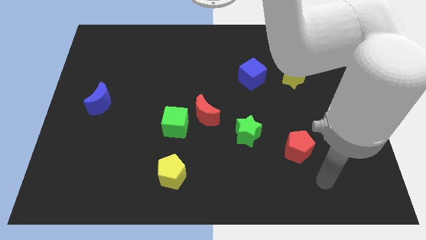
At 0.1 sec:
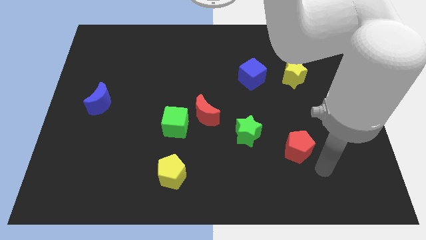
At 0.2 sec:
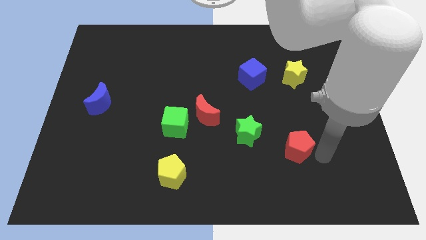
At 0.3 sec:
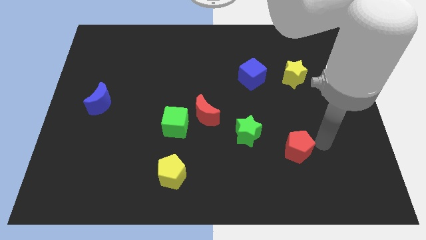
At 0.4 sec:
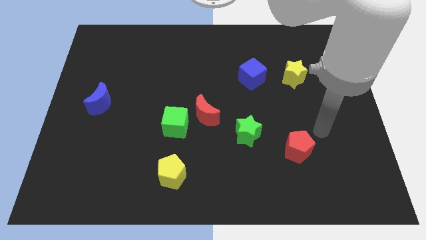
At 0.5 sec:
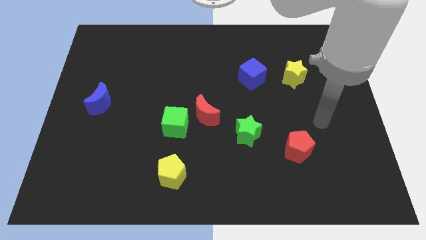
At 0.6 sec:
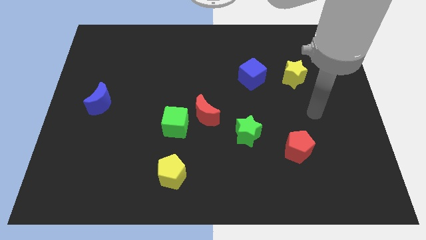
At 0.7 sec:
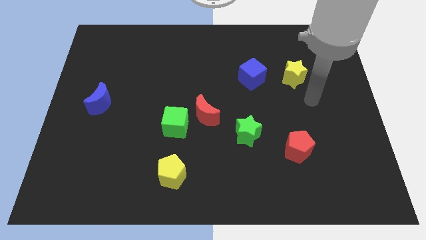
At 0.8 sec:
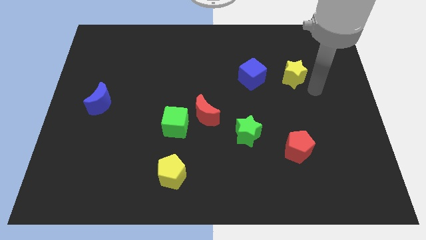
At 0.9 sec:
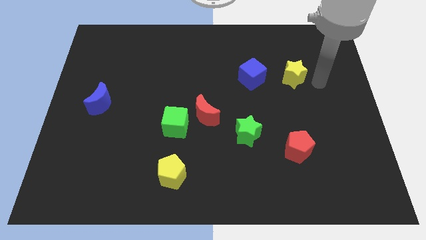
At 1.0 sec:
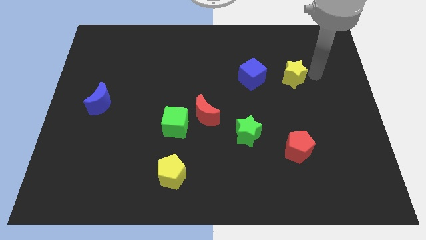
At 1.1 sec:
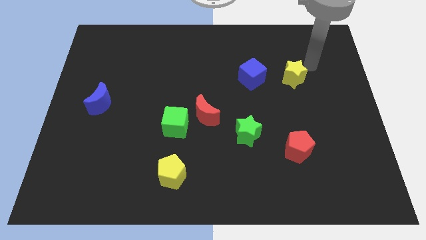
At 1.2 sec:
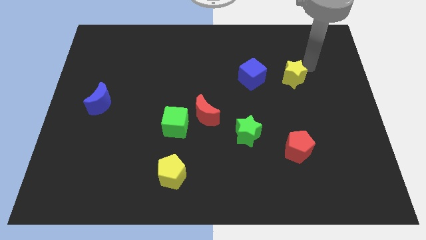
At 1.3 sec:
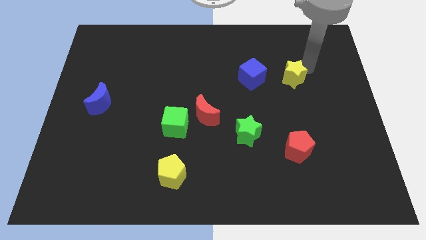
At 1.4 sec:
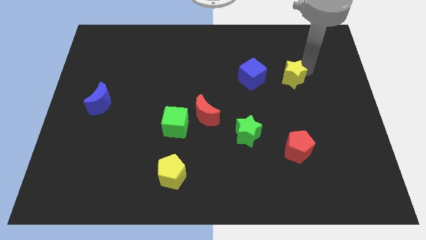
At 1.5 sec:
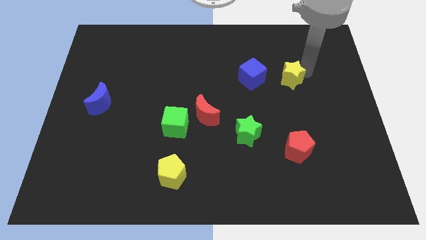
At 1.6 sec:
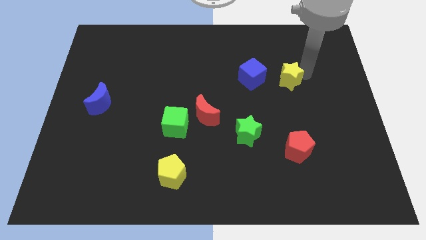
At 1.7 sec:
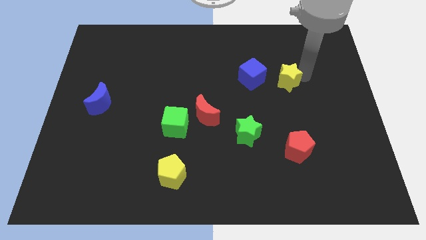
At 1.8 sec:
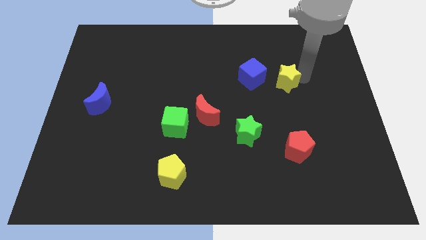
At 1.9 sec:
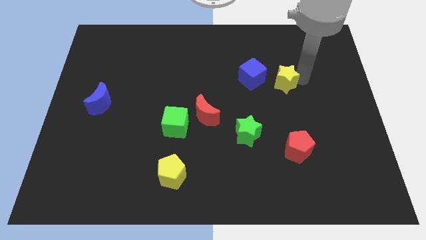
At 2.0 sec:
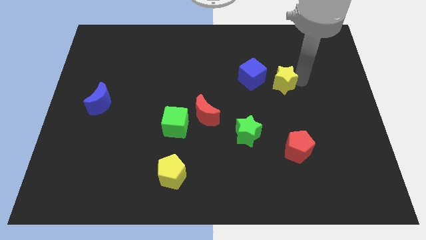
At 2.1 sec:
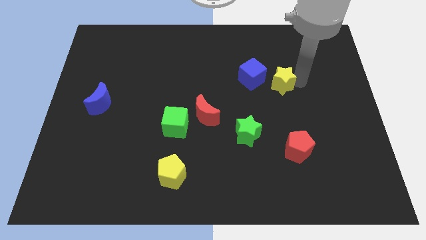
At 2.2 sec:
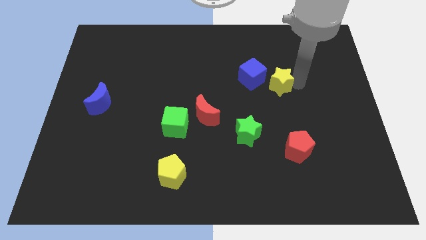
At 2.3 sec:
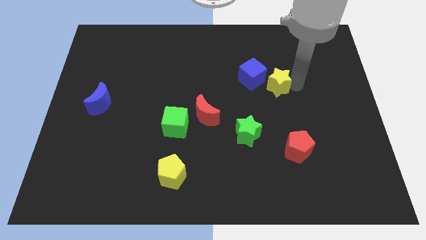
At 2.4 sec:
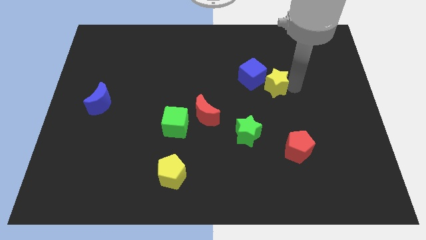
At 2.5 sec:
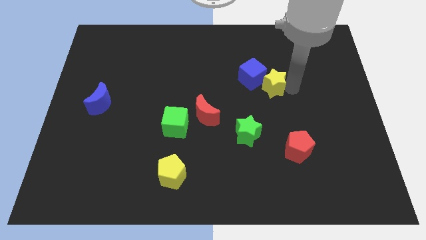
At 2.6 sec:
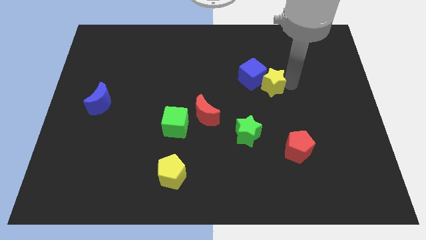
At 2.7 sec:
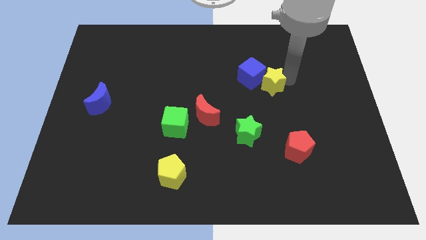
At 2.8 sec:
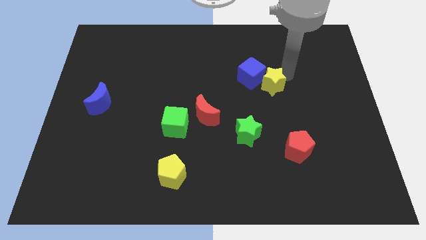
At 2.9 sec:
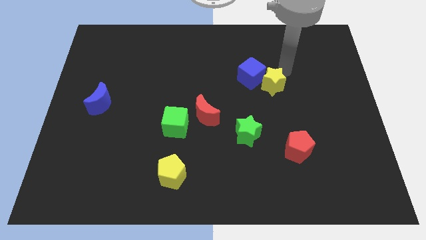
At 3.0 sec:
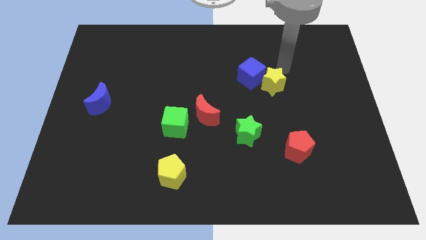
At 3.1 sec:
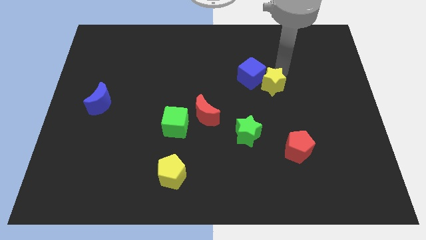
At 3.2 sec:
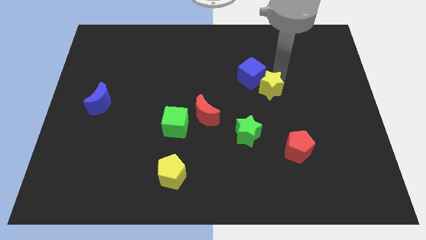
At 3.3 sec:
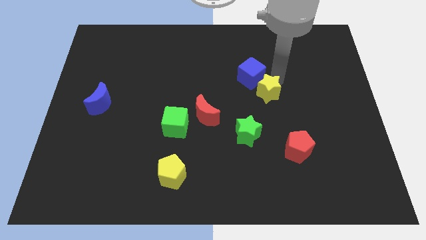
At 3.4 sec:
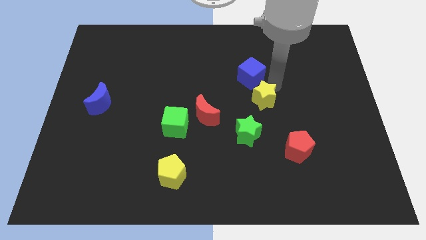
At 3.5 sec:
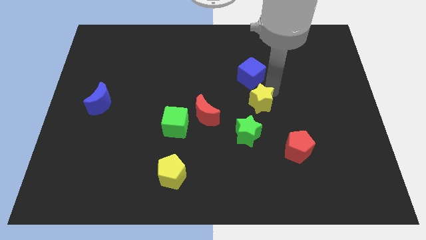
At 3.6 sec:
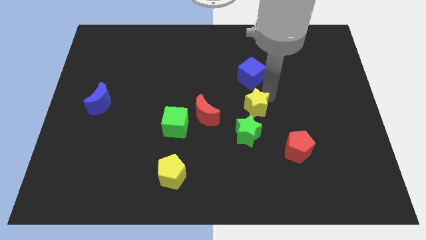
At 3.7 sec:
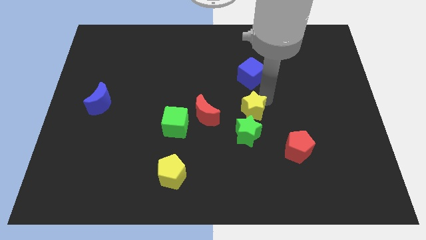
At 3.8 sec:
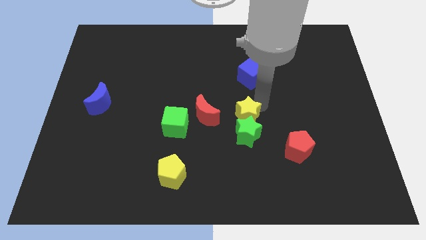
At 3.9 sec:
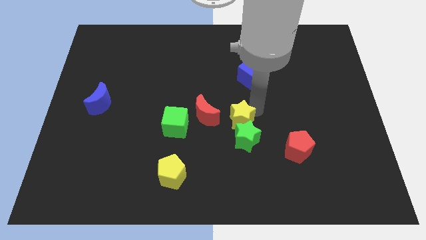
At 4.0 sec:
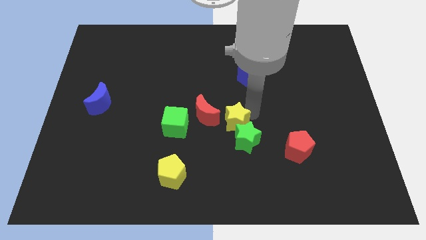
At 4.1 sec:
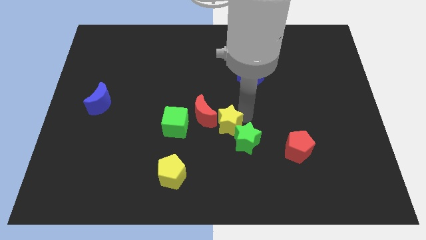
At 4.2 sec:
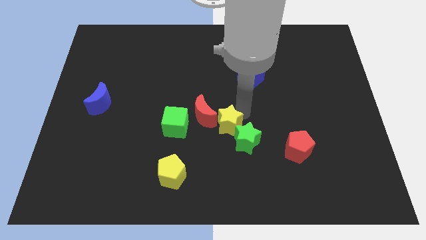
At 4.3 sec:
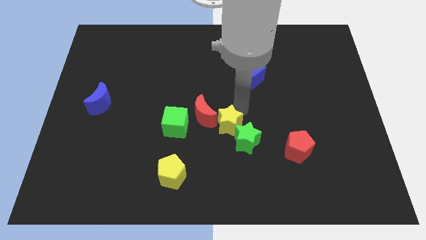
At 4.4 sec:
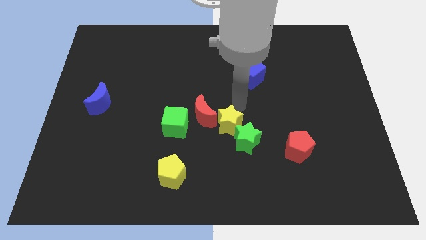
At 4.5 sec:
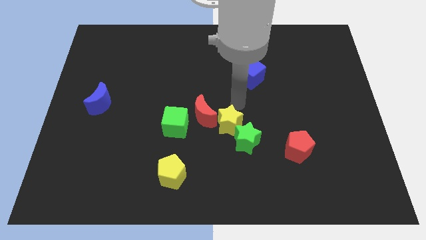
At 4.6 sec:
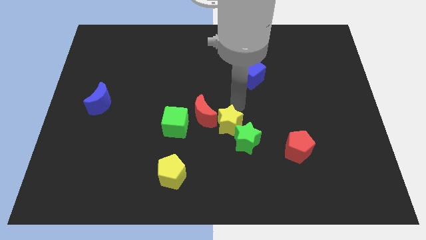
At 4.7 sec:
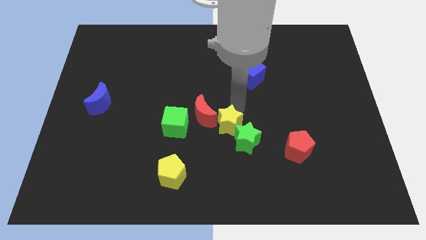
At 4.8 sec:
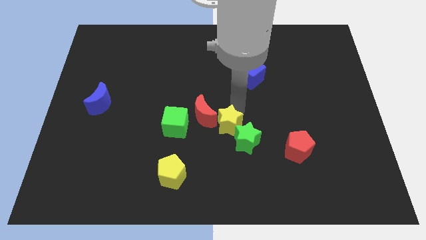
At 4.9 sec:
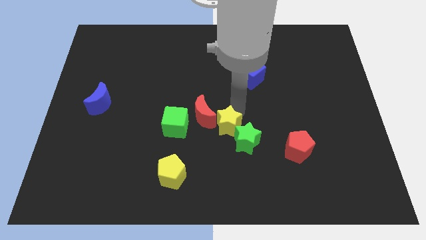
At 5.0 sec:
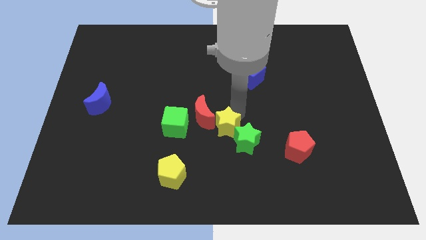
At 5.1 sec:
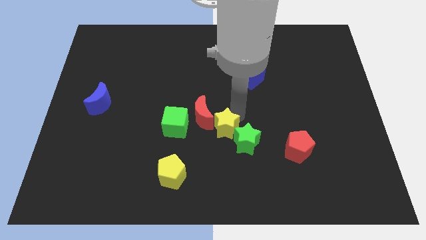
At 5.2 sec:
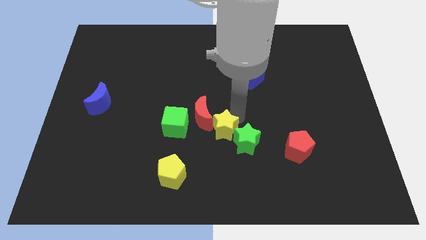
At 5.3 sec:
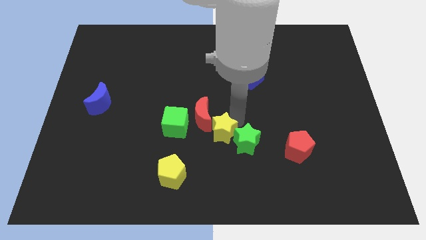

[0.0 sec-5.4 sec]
put the yellow star to the bottom side of the red moon

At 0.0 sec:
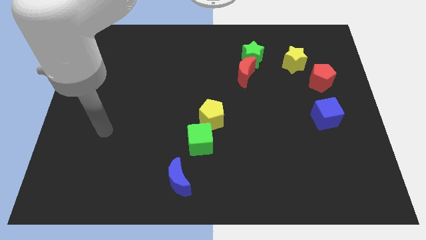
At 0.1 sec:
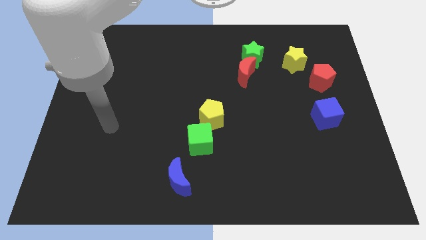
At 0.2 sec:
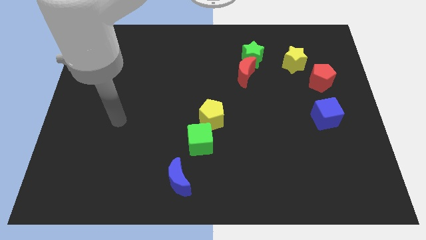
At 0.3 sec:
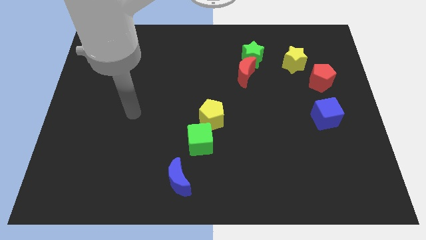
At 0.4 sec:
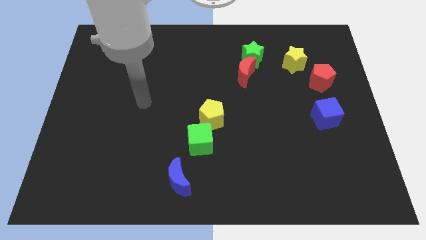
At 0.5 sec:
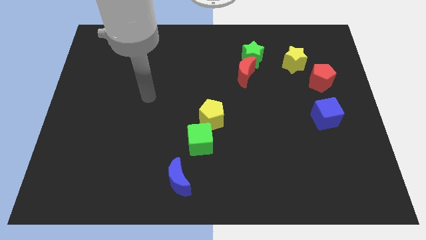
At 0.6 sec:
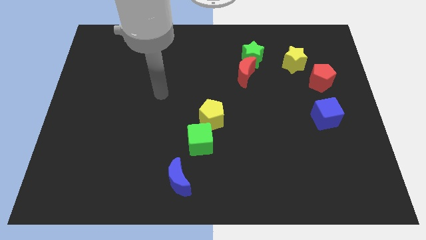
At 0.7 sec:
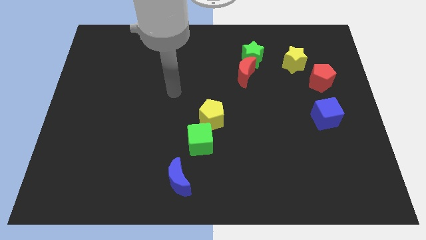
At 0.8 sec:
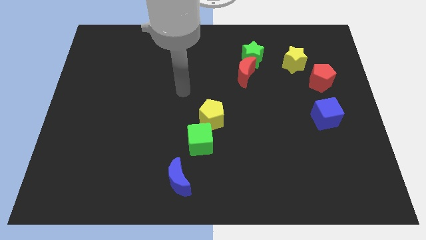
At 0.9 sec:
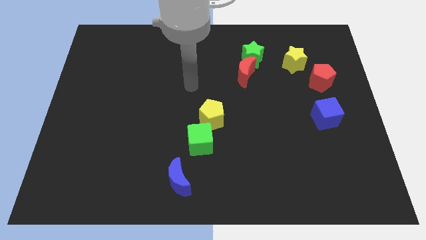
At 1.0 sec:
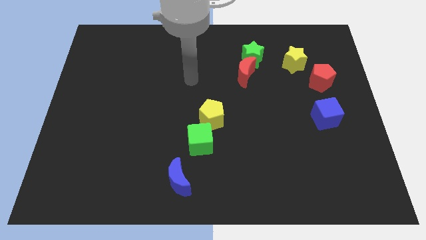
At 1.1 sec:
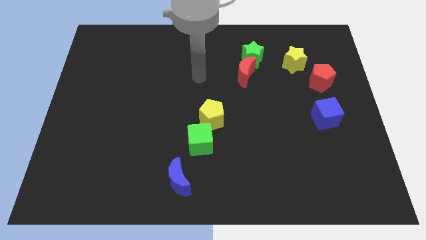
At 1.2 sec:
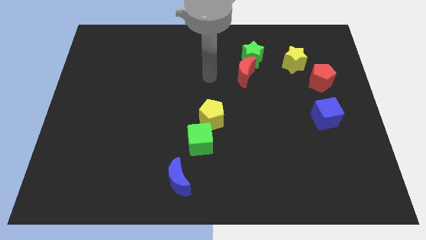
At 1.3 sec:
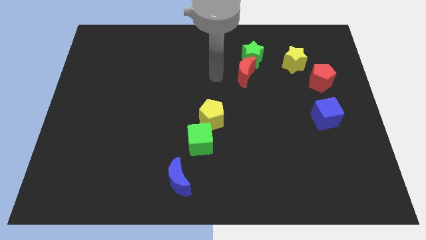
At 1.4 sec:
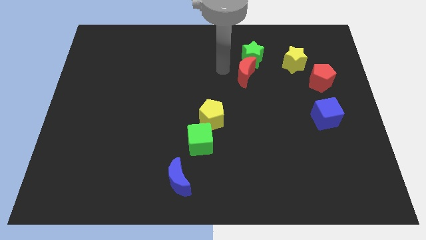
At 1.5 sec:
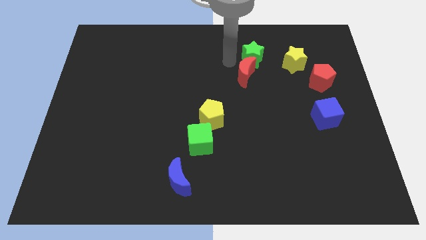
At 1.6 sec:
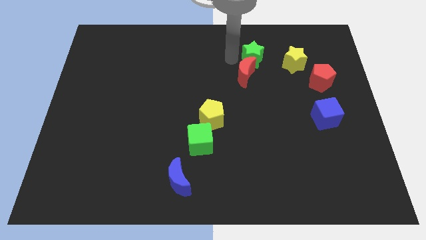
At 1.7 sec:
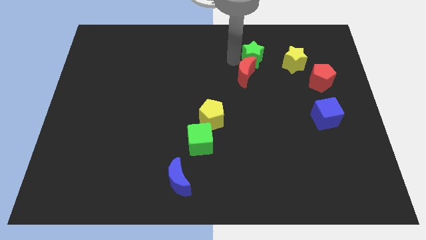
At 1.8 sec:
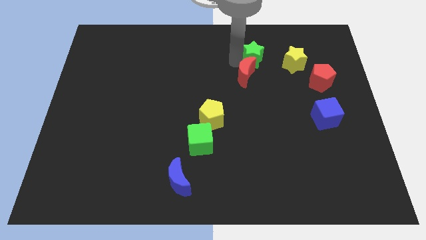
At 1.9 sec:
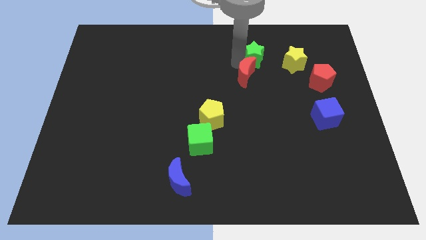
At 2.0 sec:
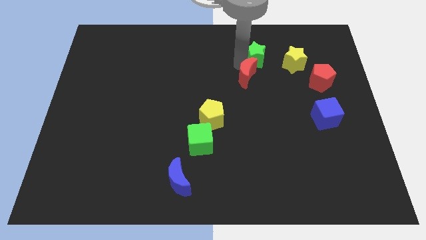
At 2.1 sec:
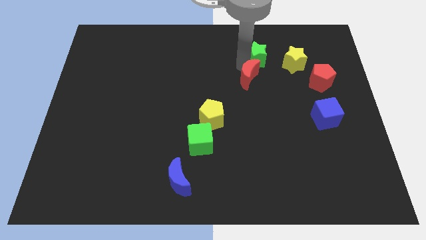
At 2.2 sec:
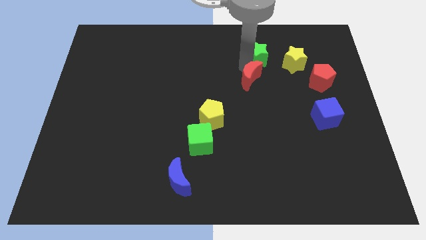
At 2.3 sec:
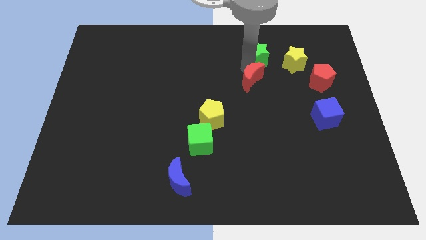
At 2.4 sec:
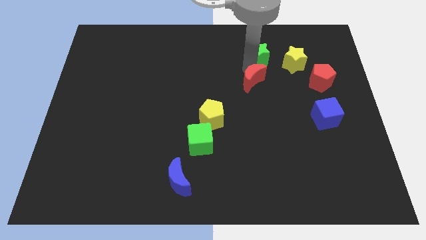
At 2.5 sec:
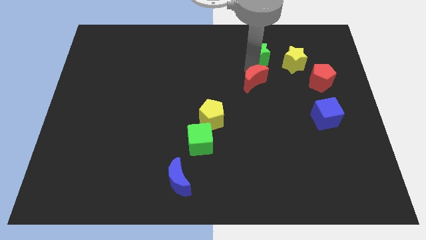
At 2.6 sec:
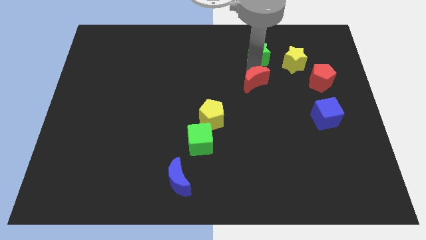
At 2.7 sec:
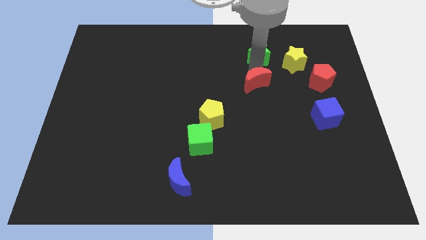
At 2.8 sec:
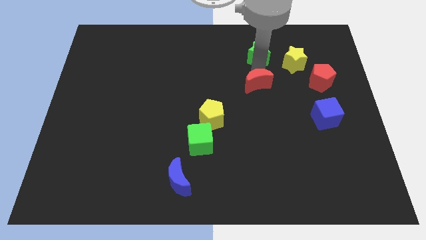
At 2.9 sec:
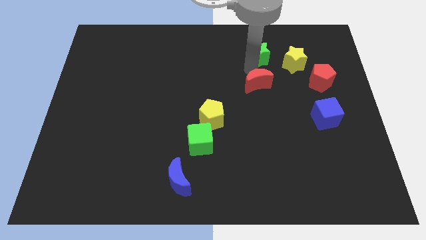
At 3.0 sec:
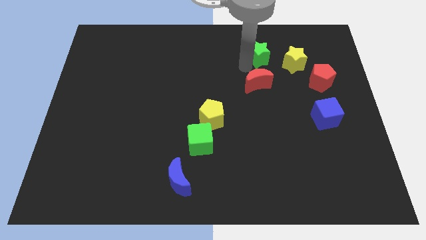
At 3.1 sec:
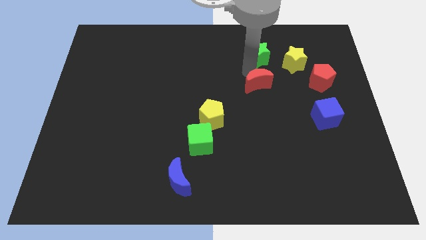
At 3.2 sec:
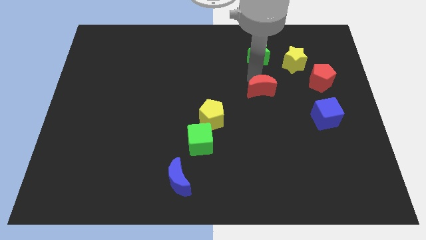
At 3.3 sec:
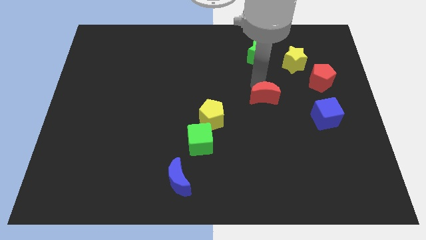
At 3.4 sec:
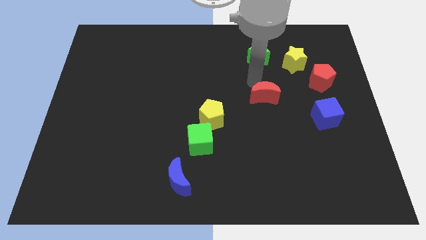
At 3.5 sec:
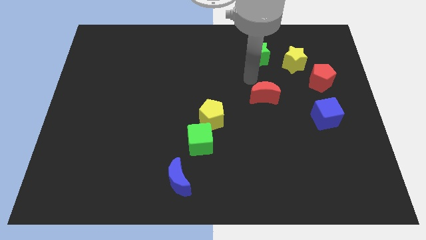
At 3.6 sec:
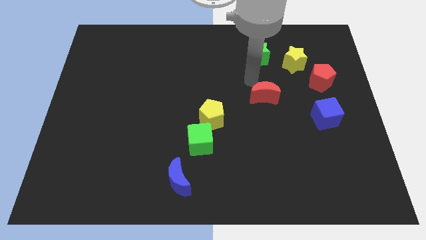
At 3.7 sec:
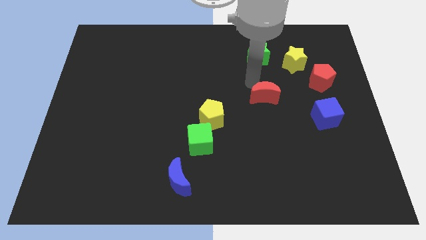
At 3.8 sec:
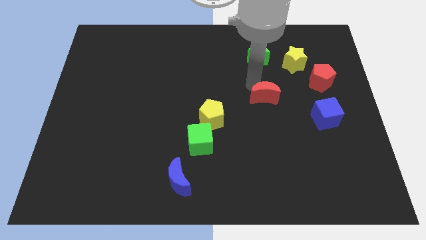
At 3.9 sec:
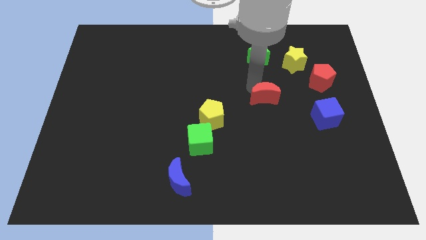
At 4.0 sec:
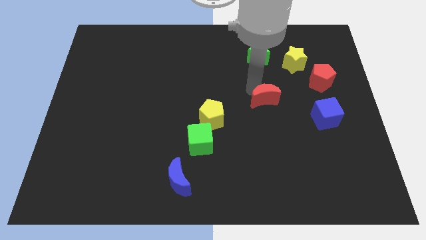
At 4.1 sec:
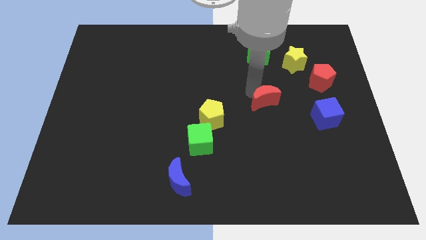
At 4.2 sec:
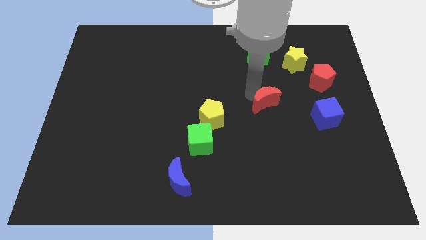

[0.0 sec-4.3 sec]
slide the red moon to the left of the blue cube
